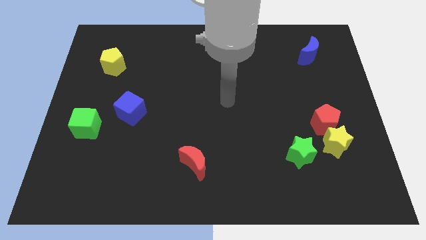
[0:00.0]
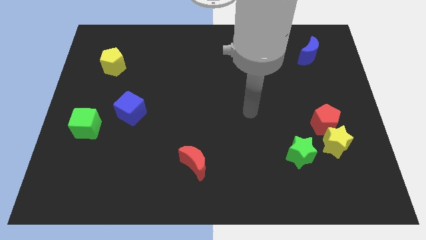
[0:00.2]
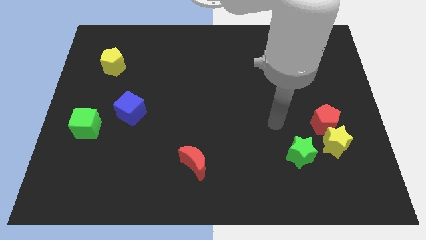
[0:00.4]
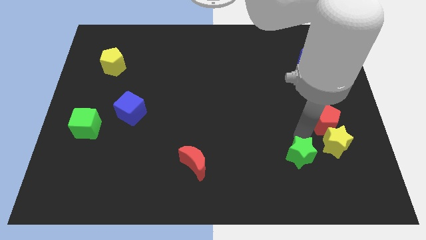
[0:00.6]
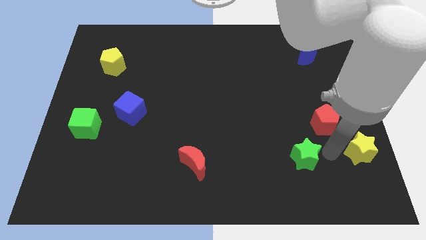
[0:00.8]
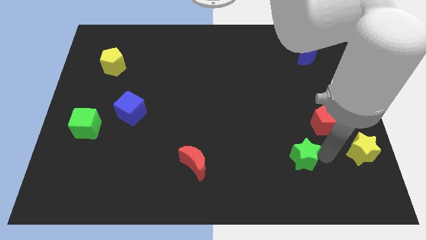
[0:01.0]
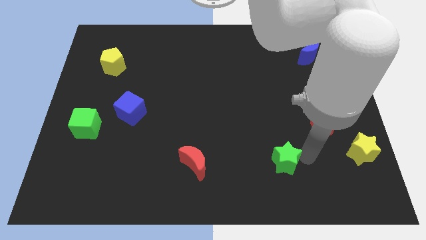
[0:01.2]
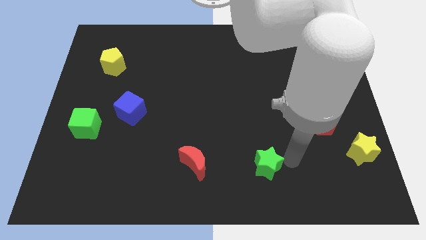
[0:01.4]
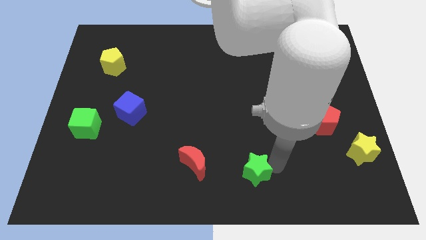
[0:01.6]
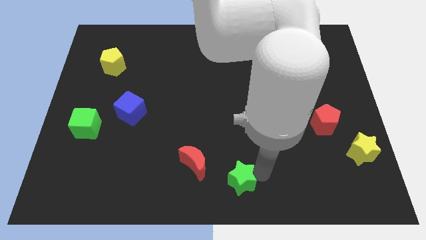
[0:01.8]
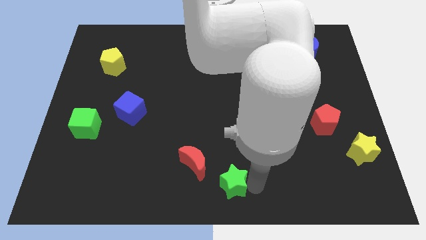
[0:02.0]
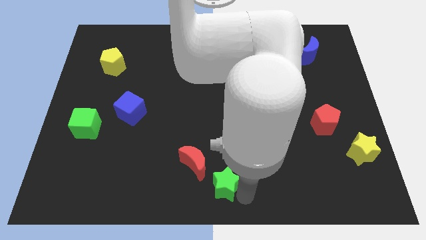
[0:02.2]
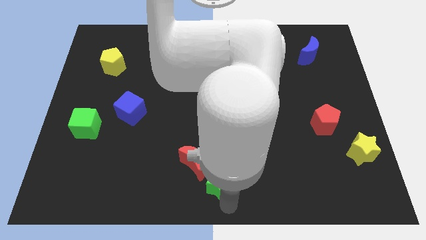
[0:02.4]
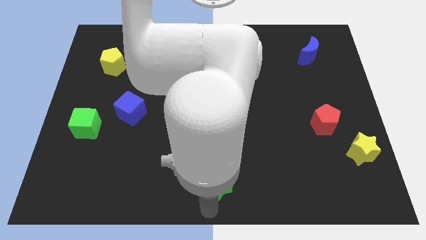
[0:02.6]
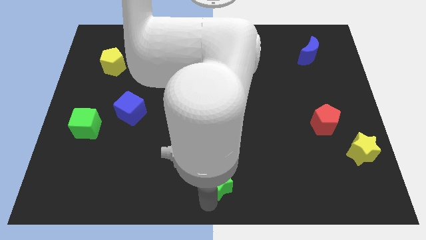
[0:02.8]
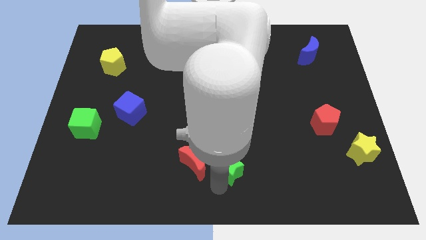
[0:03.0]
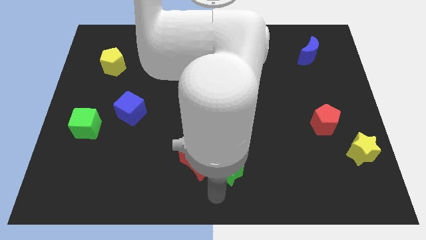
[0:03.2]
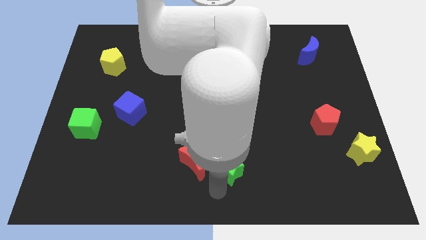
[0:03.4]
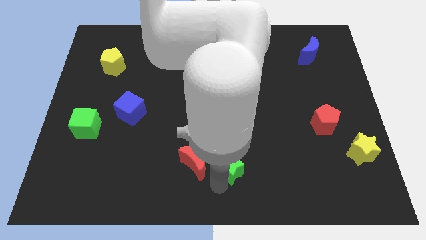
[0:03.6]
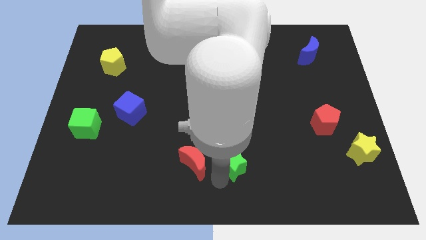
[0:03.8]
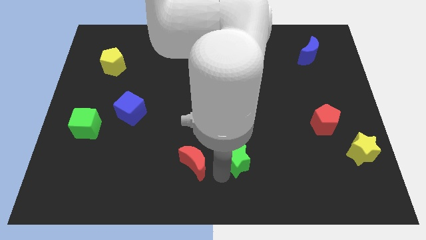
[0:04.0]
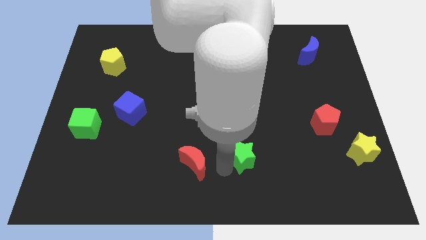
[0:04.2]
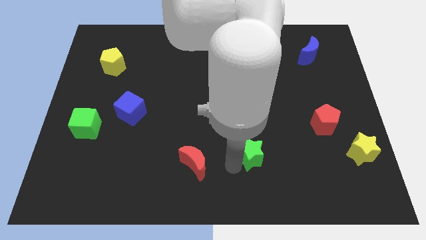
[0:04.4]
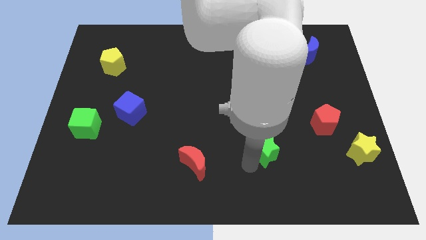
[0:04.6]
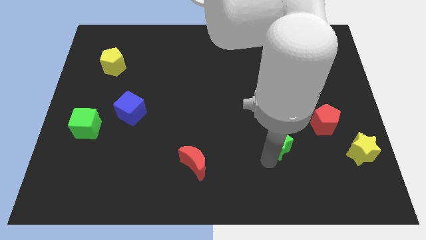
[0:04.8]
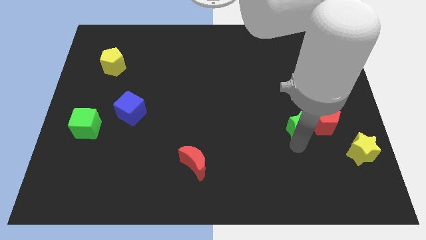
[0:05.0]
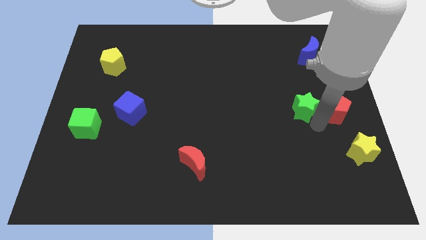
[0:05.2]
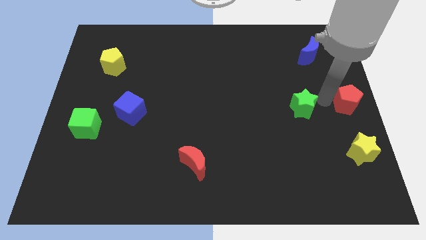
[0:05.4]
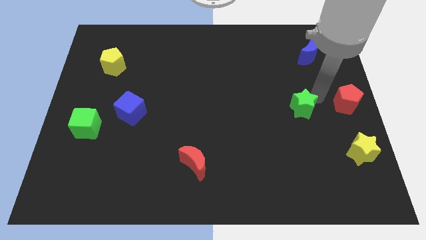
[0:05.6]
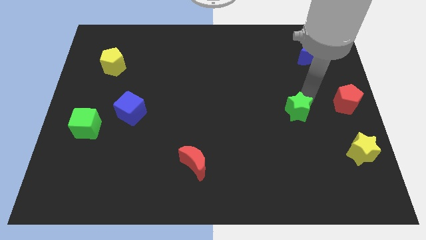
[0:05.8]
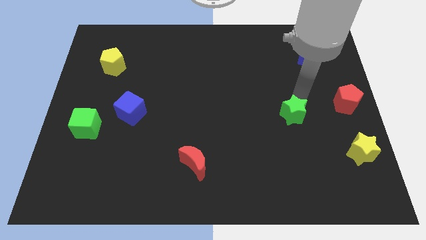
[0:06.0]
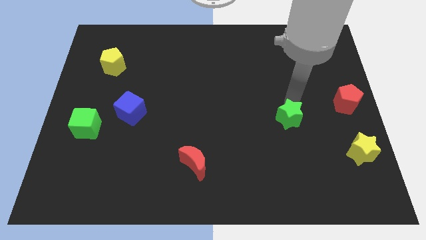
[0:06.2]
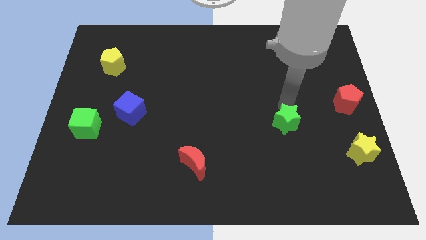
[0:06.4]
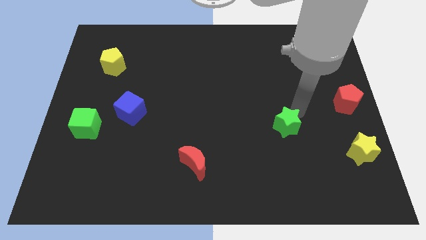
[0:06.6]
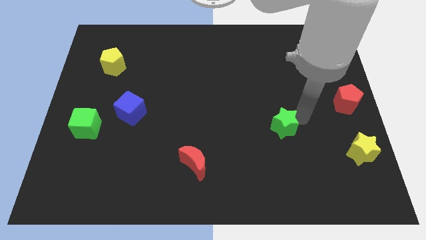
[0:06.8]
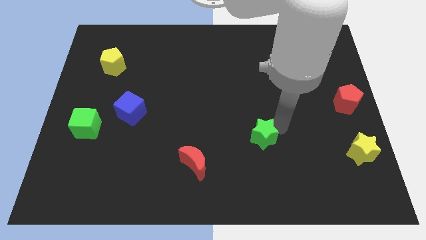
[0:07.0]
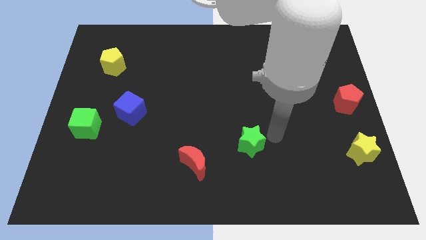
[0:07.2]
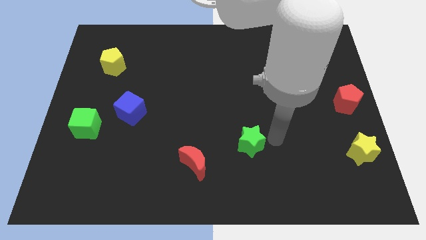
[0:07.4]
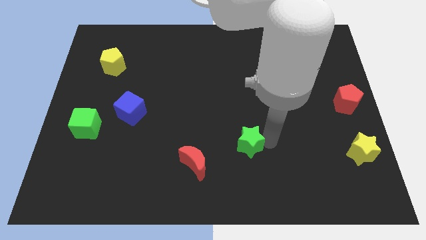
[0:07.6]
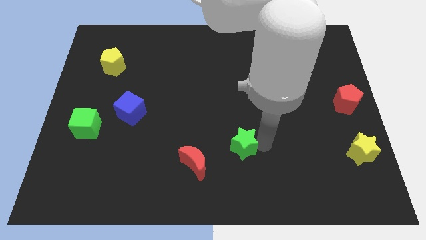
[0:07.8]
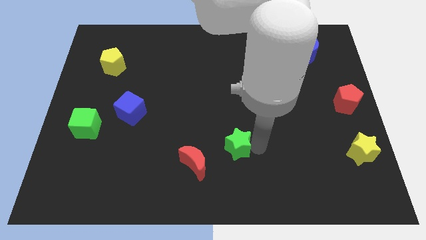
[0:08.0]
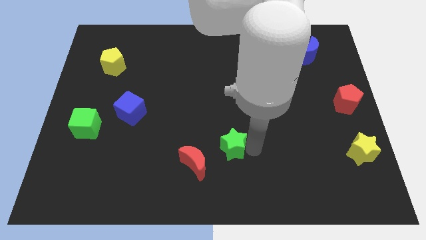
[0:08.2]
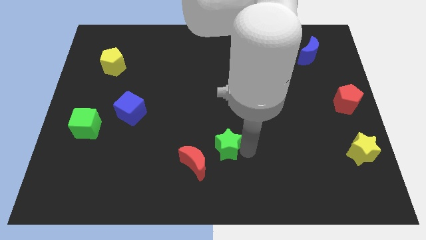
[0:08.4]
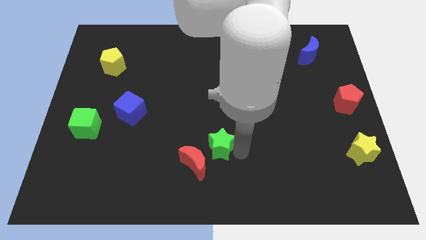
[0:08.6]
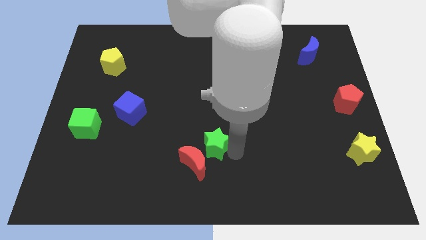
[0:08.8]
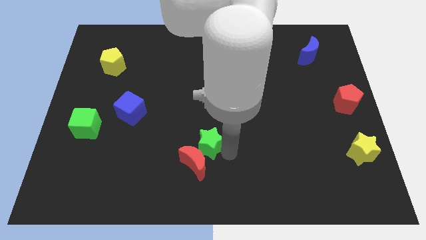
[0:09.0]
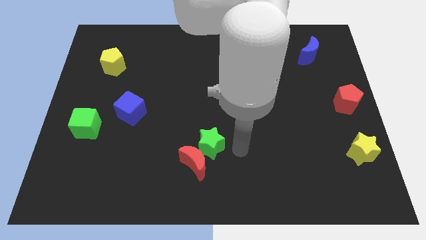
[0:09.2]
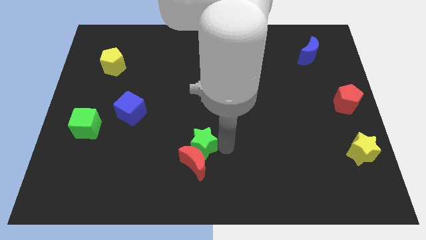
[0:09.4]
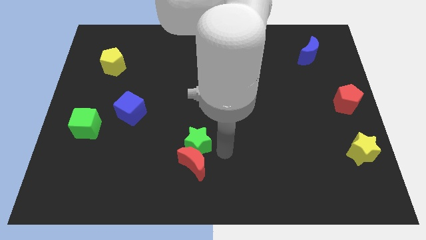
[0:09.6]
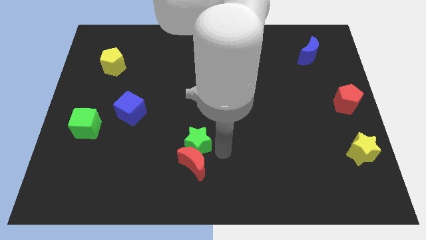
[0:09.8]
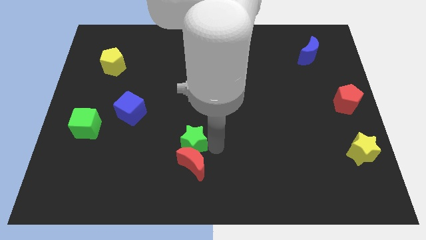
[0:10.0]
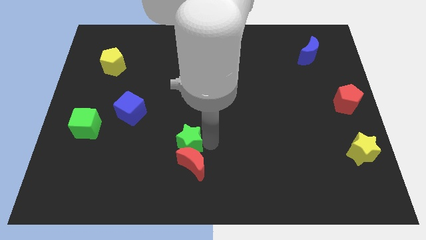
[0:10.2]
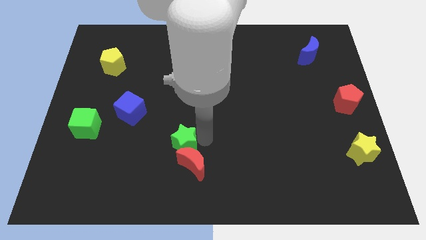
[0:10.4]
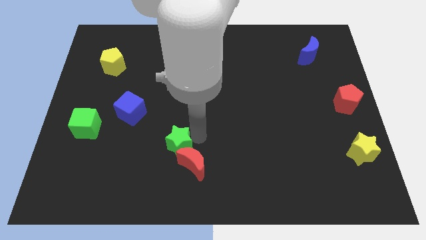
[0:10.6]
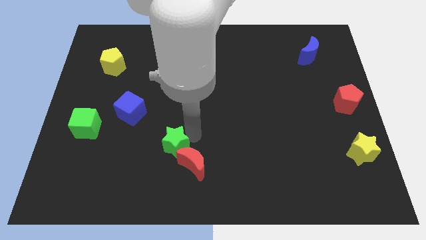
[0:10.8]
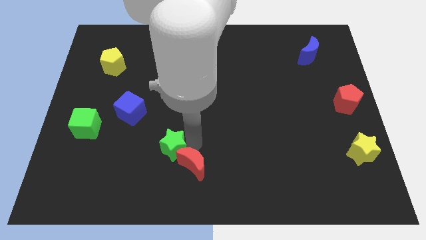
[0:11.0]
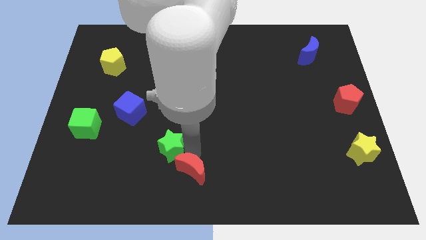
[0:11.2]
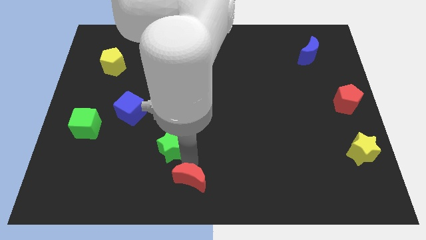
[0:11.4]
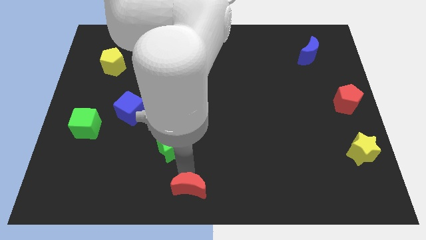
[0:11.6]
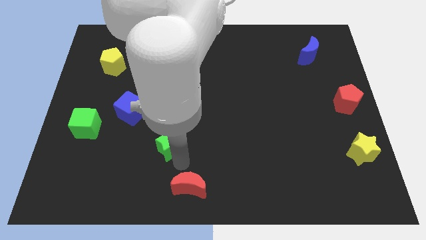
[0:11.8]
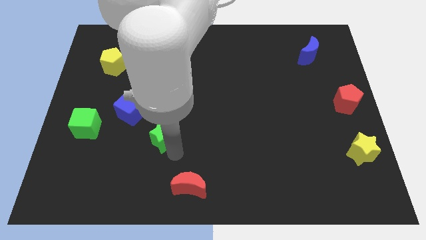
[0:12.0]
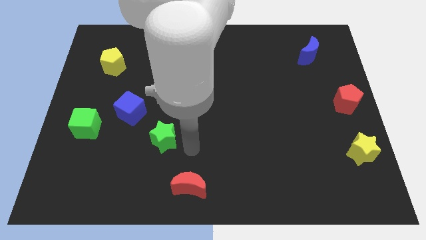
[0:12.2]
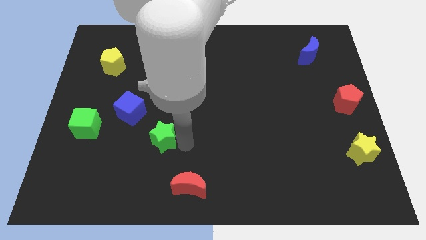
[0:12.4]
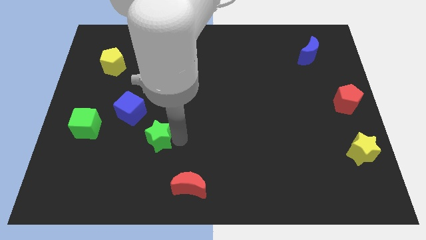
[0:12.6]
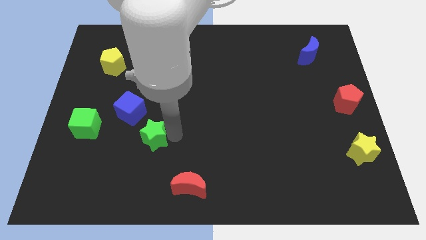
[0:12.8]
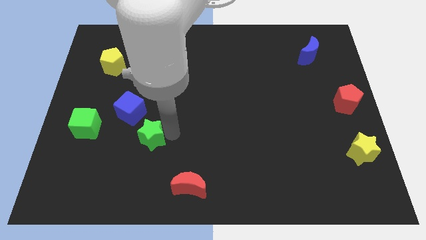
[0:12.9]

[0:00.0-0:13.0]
push the green star to the right side of the green cube
